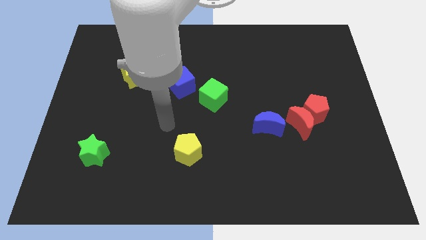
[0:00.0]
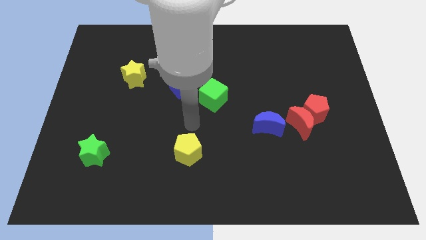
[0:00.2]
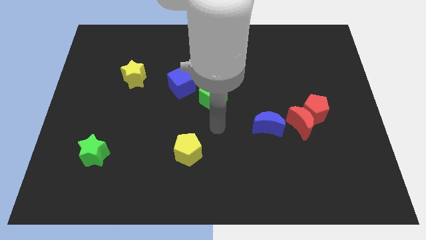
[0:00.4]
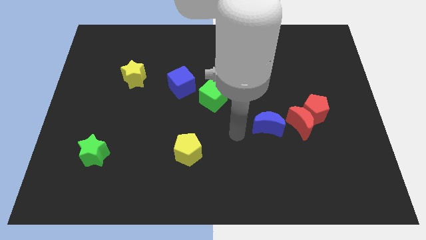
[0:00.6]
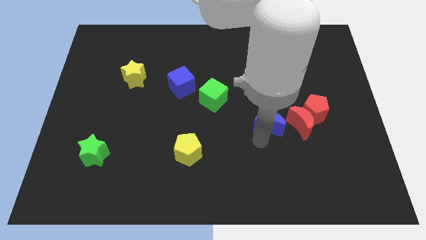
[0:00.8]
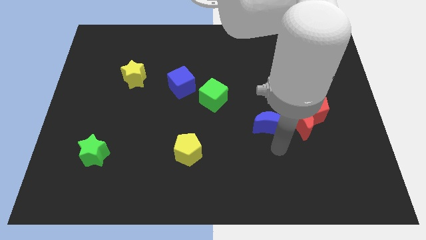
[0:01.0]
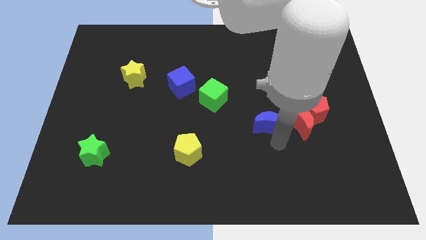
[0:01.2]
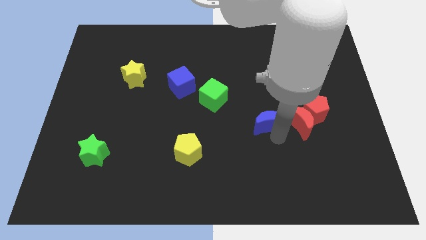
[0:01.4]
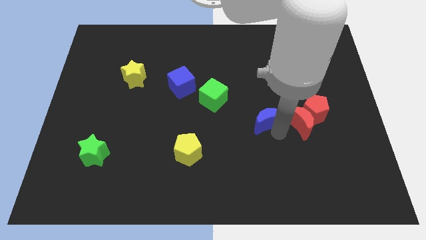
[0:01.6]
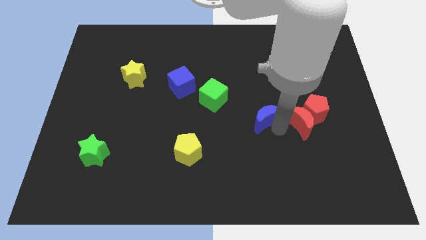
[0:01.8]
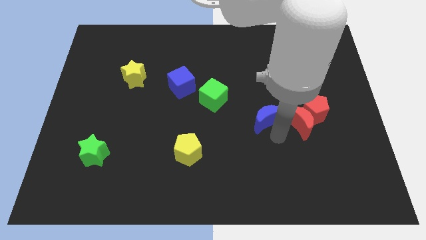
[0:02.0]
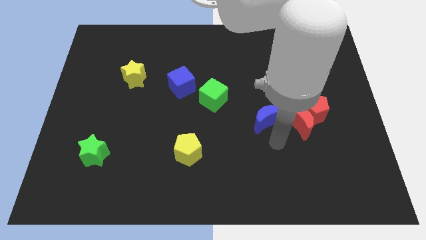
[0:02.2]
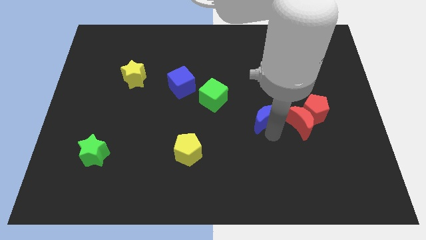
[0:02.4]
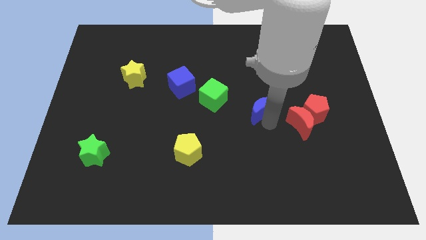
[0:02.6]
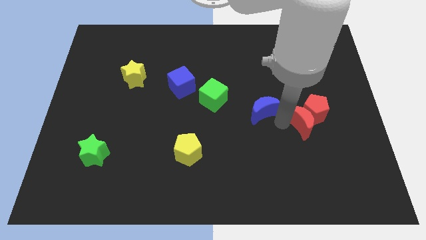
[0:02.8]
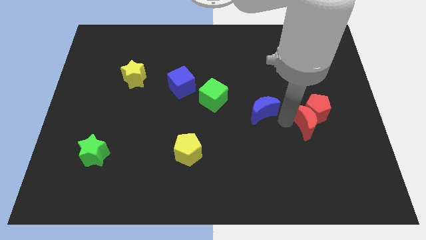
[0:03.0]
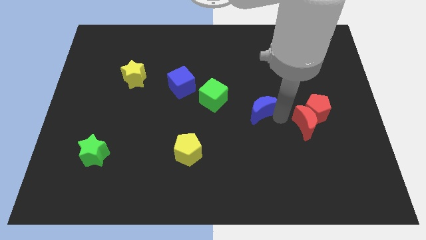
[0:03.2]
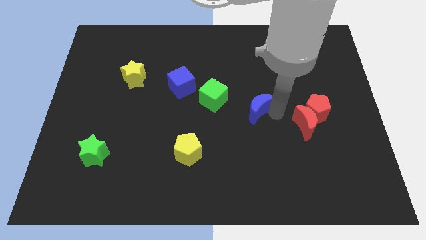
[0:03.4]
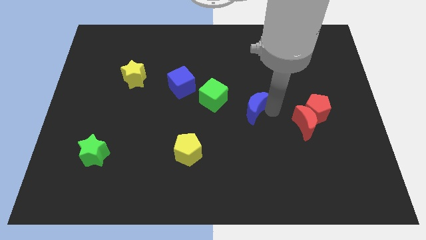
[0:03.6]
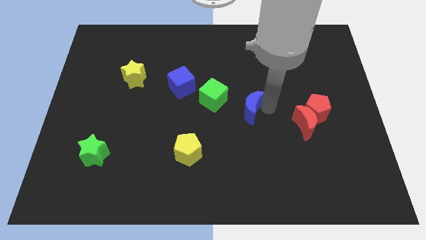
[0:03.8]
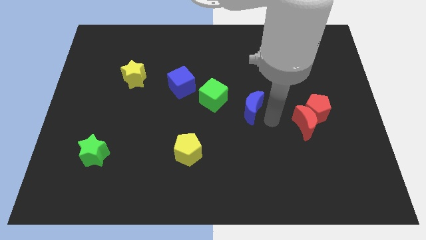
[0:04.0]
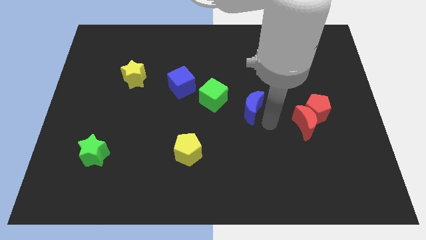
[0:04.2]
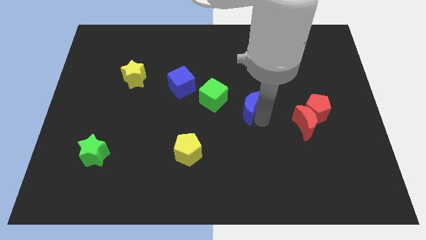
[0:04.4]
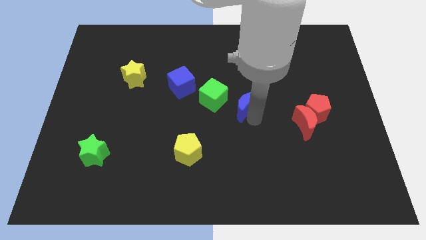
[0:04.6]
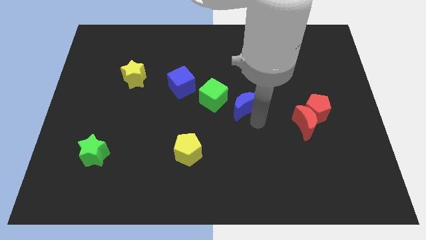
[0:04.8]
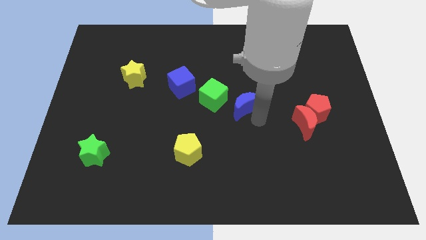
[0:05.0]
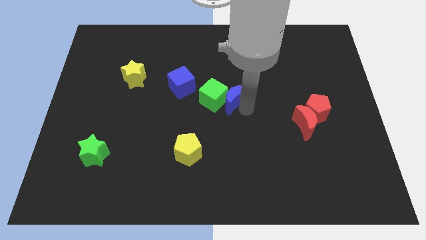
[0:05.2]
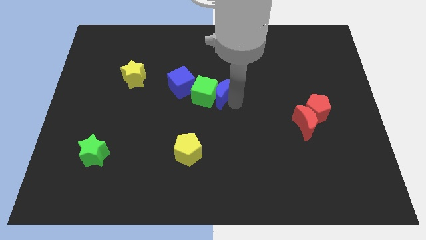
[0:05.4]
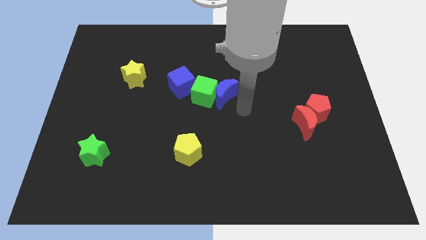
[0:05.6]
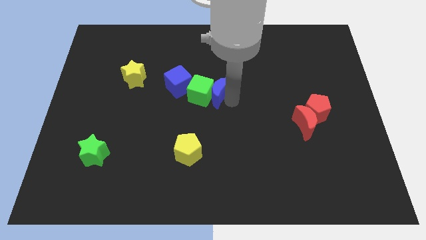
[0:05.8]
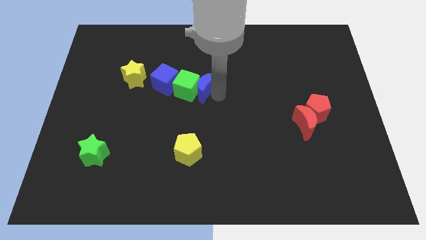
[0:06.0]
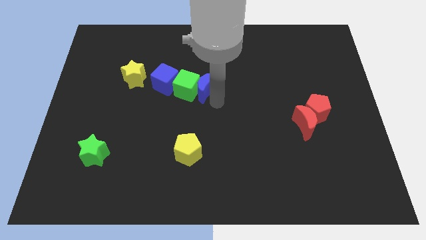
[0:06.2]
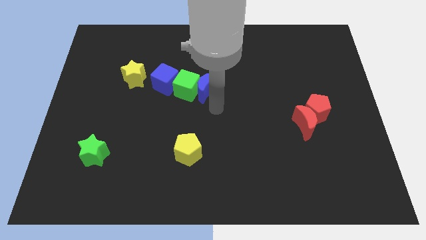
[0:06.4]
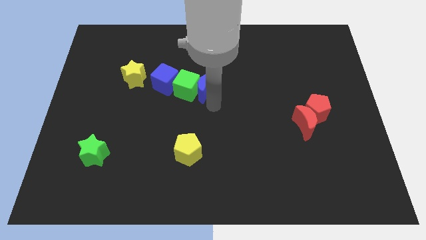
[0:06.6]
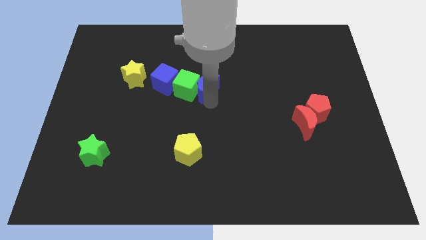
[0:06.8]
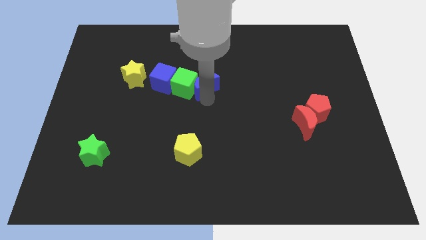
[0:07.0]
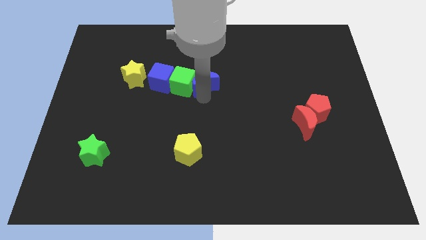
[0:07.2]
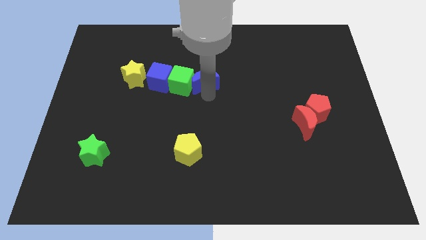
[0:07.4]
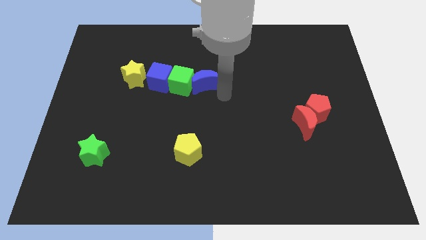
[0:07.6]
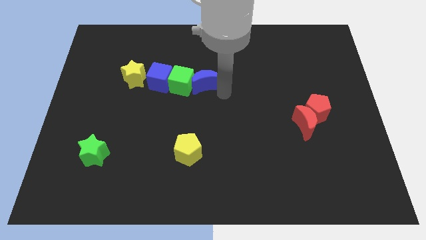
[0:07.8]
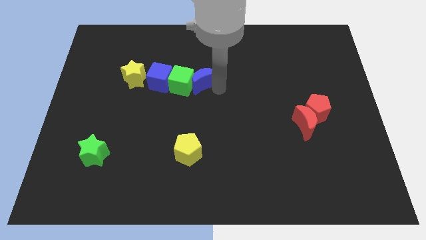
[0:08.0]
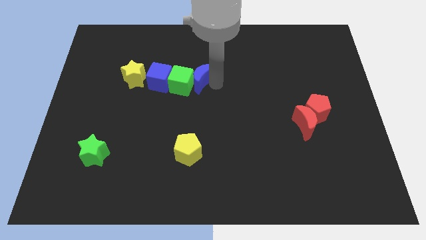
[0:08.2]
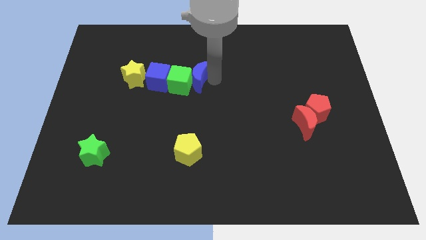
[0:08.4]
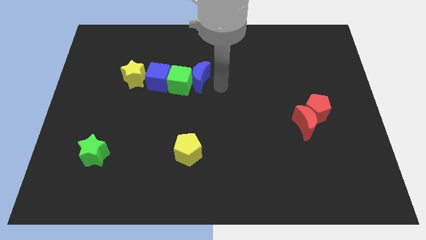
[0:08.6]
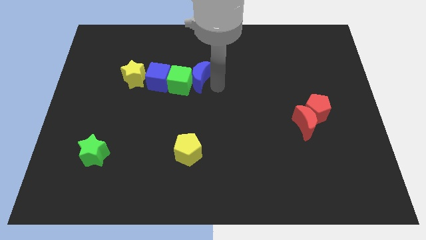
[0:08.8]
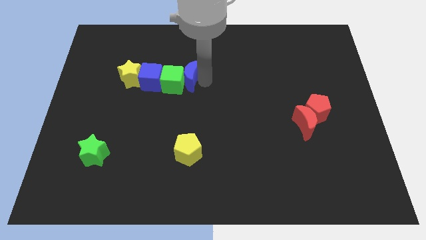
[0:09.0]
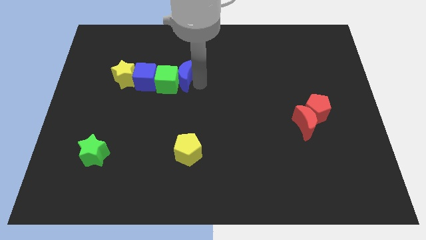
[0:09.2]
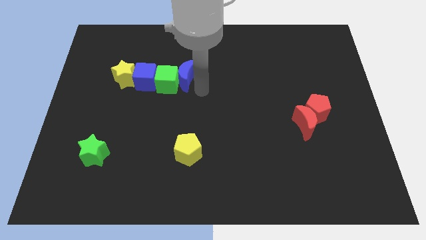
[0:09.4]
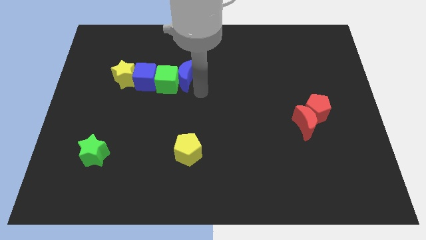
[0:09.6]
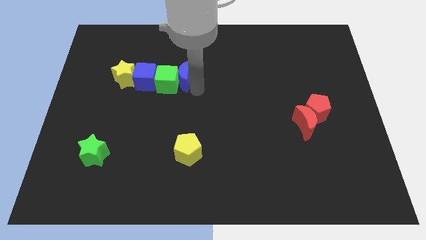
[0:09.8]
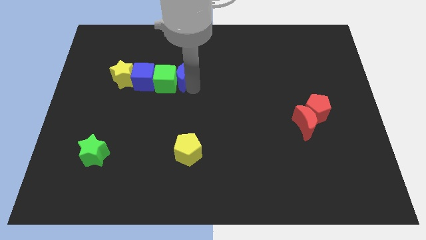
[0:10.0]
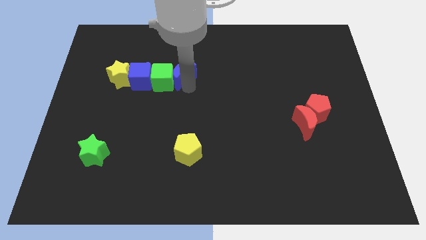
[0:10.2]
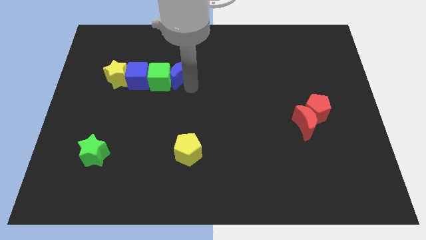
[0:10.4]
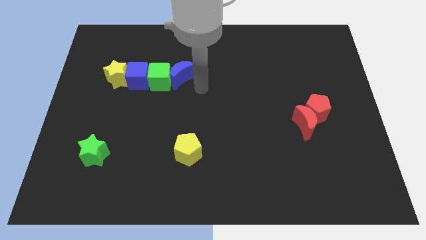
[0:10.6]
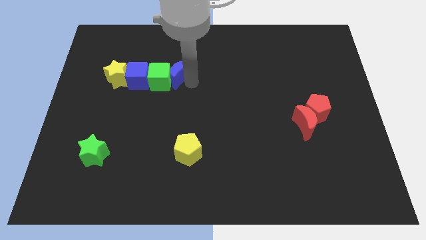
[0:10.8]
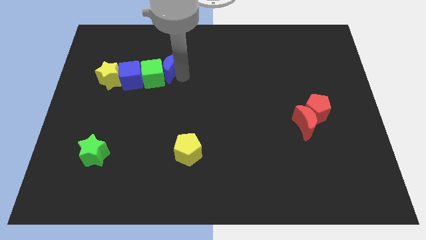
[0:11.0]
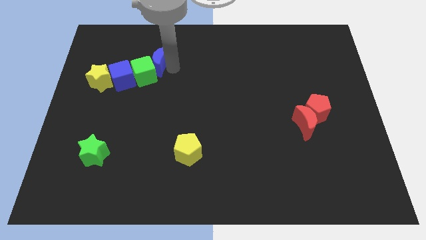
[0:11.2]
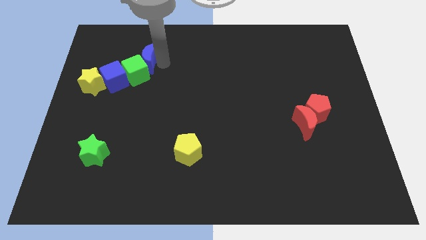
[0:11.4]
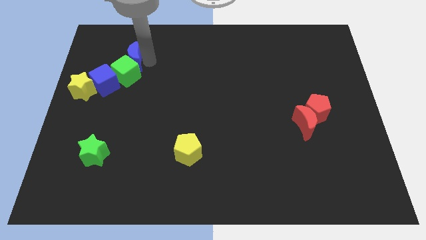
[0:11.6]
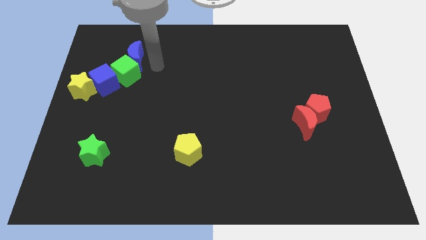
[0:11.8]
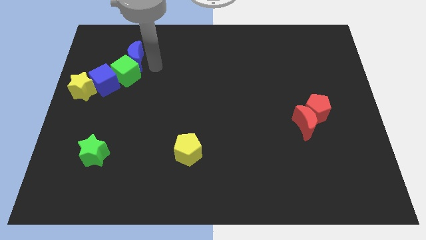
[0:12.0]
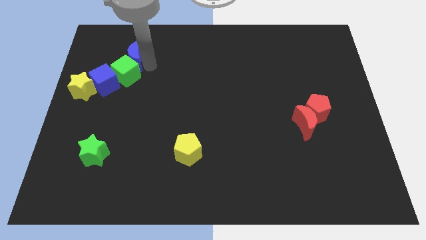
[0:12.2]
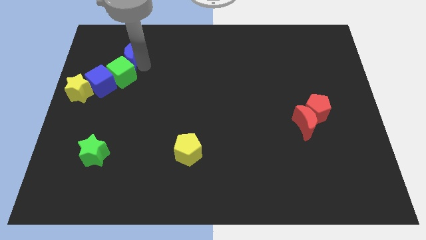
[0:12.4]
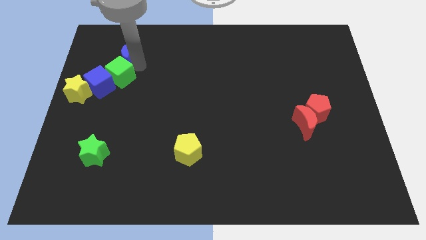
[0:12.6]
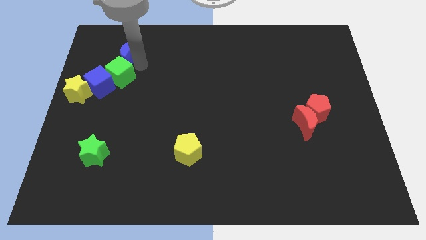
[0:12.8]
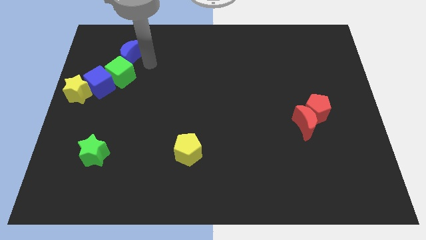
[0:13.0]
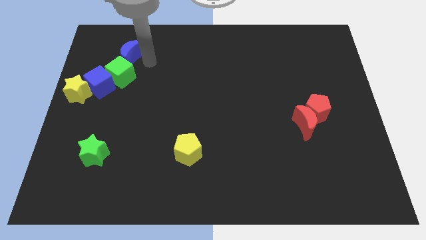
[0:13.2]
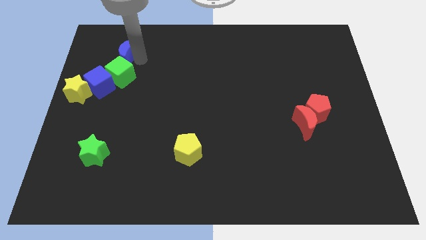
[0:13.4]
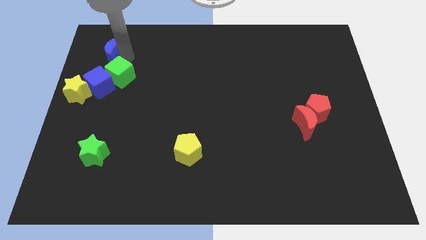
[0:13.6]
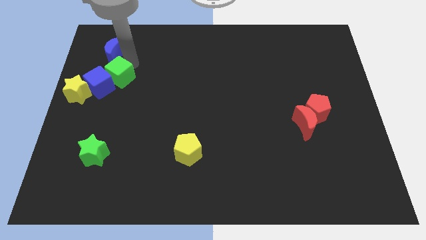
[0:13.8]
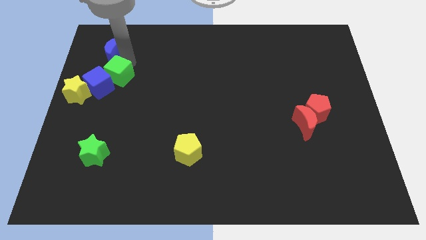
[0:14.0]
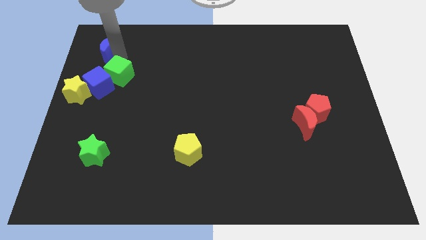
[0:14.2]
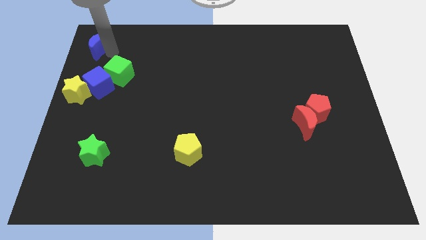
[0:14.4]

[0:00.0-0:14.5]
put the blue moon to the upper left corner

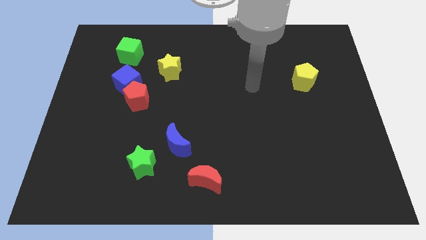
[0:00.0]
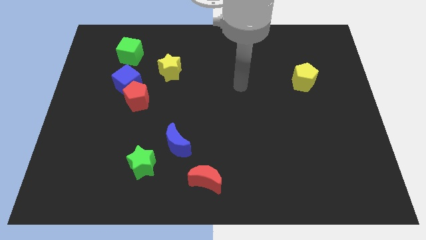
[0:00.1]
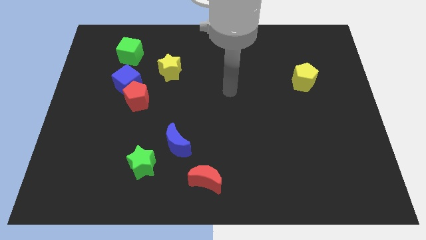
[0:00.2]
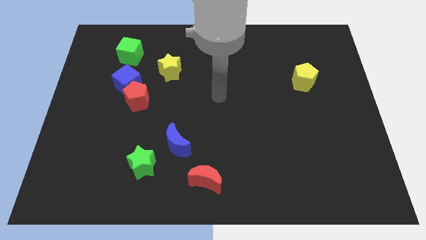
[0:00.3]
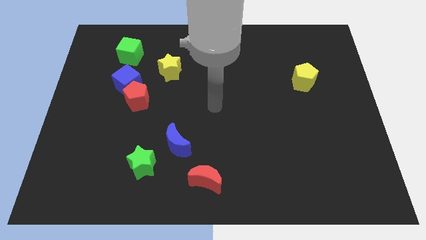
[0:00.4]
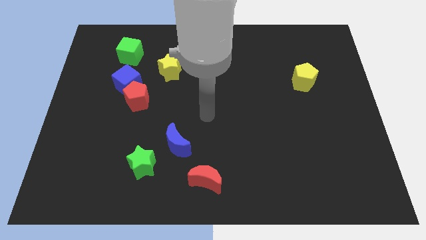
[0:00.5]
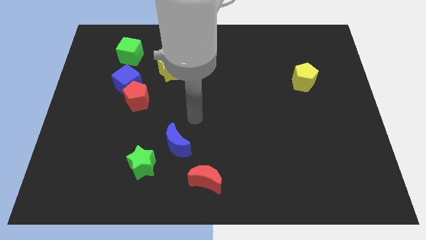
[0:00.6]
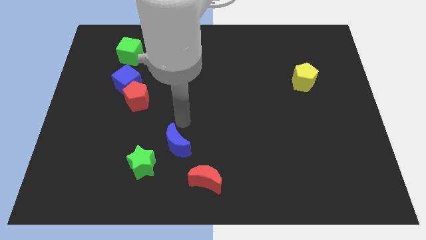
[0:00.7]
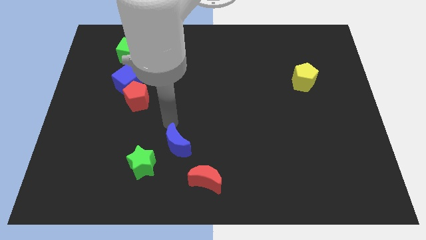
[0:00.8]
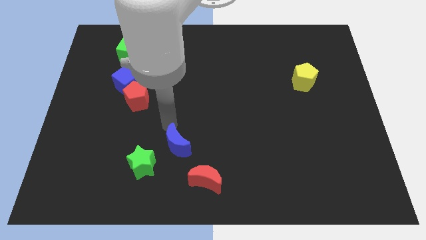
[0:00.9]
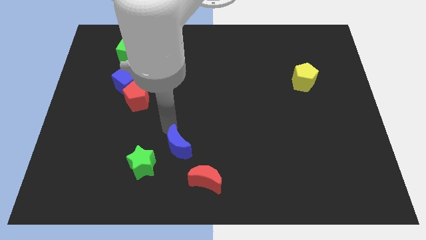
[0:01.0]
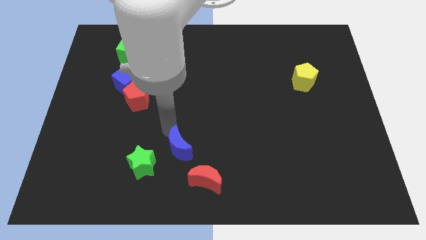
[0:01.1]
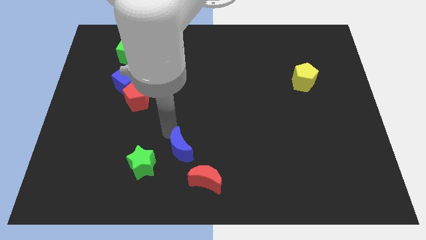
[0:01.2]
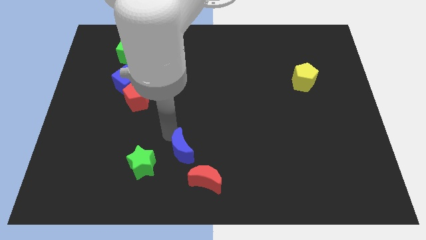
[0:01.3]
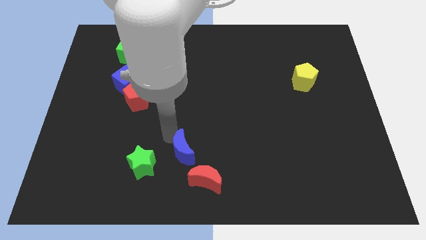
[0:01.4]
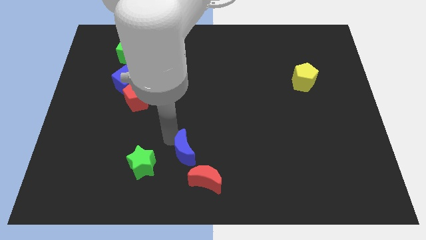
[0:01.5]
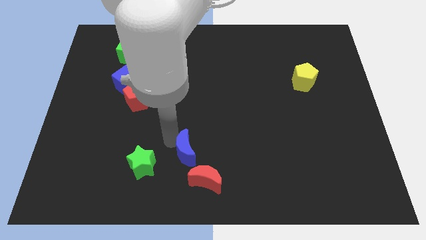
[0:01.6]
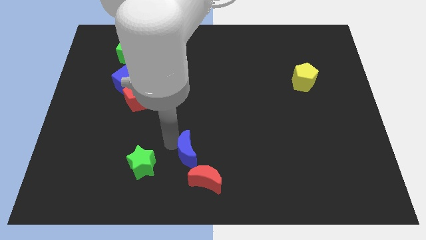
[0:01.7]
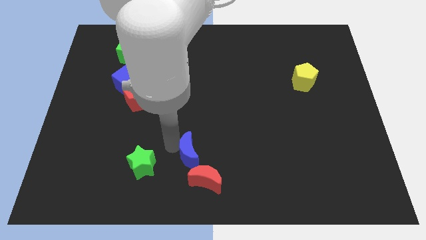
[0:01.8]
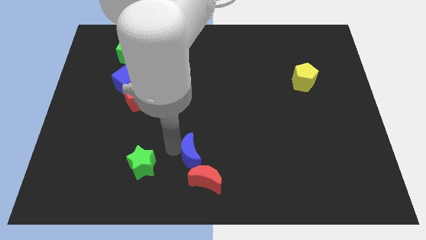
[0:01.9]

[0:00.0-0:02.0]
slide the blue moon to the bottom
